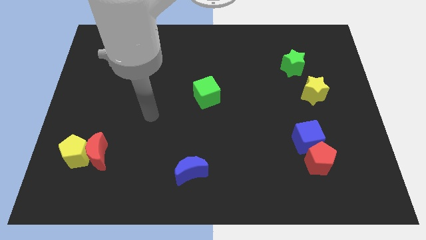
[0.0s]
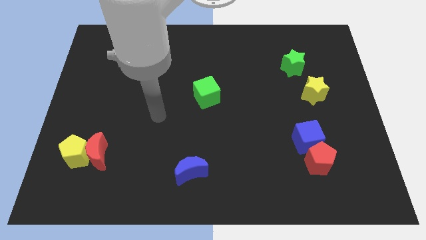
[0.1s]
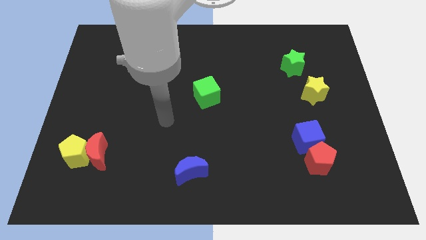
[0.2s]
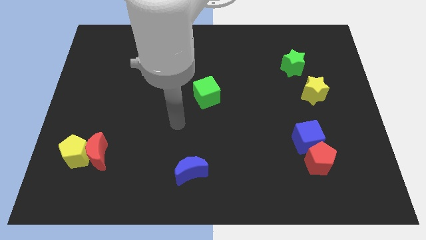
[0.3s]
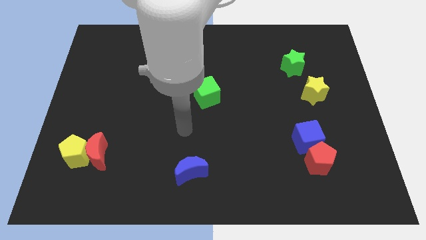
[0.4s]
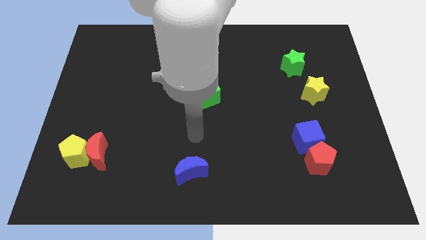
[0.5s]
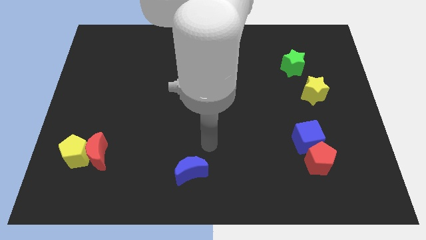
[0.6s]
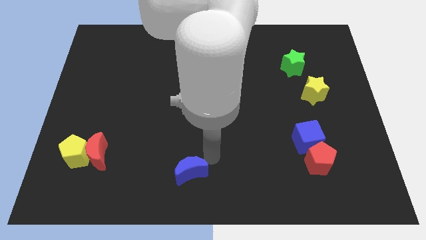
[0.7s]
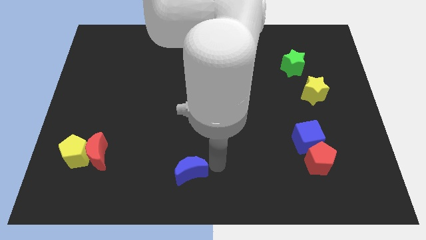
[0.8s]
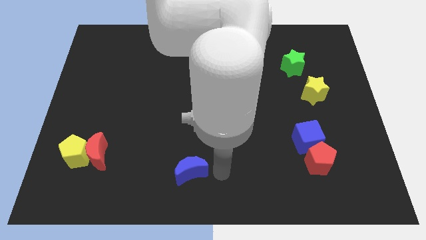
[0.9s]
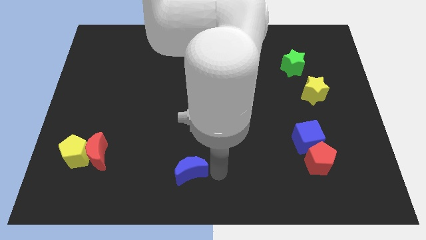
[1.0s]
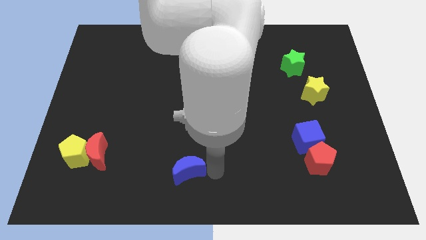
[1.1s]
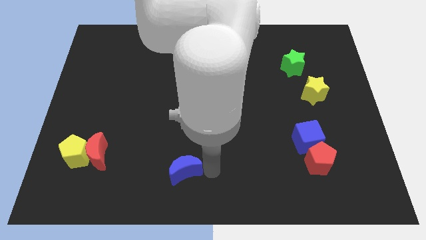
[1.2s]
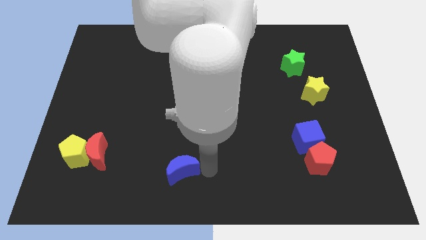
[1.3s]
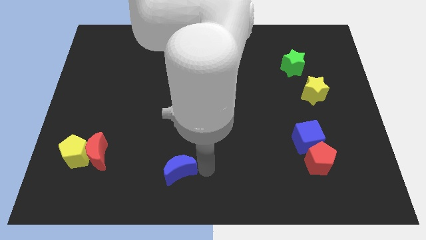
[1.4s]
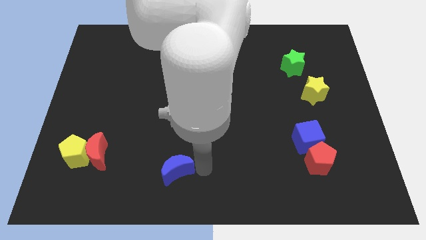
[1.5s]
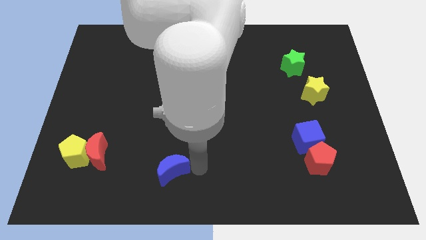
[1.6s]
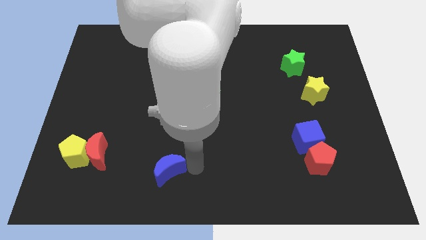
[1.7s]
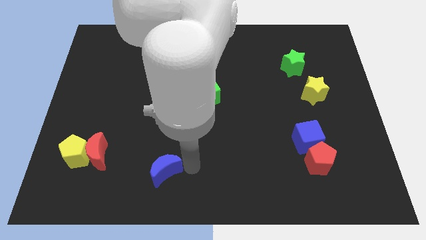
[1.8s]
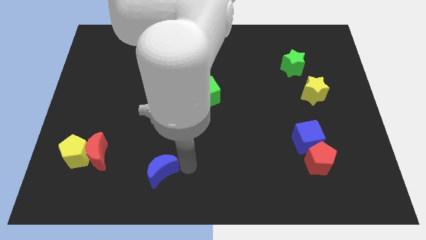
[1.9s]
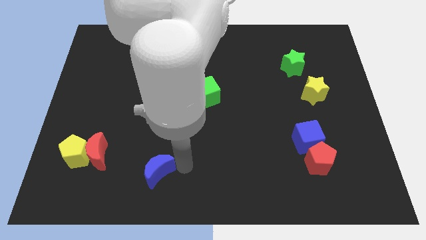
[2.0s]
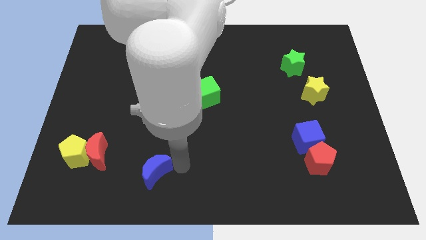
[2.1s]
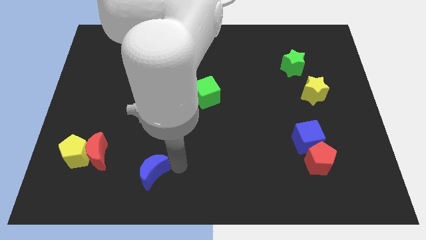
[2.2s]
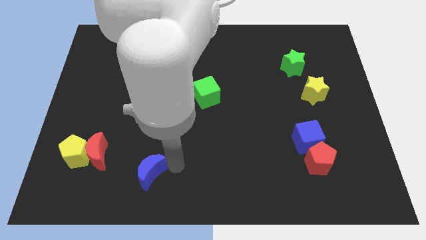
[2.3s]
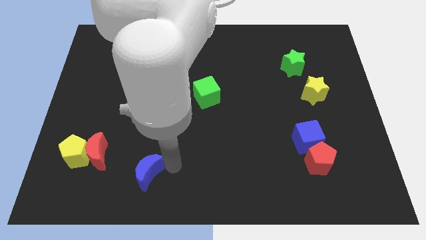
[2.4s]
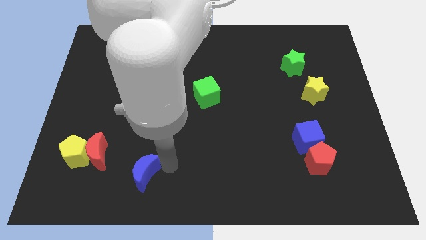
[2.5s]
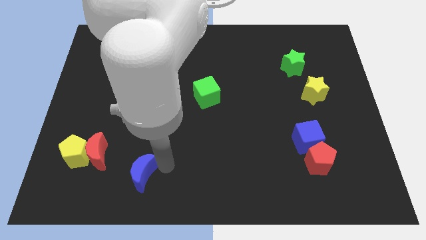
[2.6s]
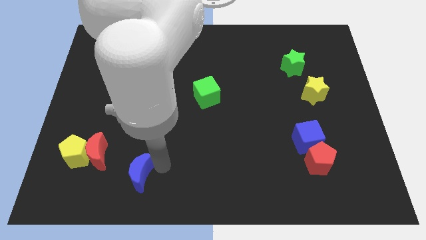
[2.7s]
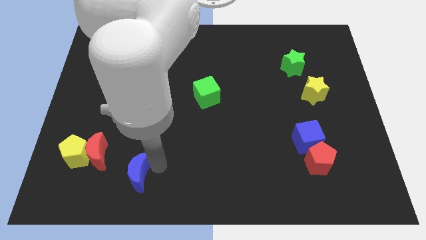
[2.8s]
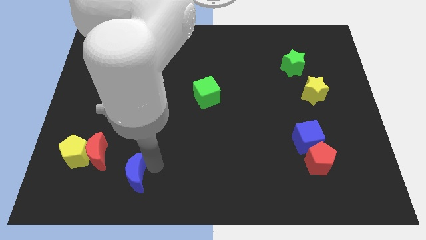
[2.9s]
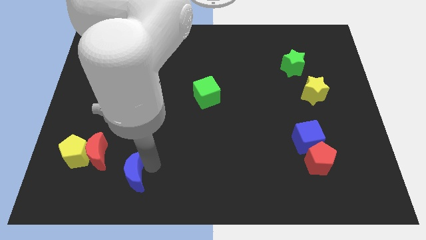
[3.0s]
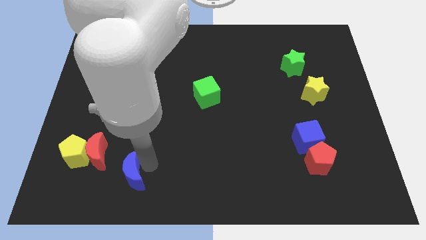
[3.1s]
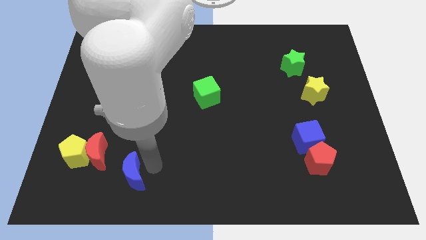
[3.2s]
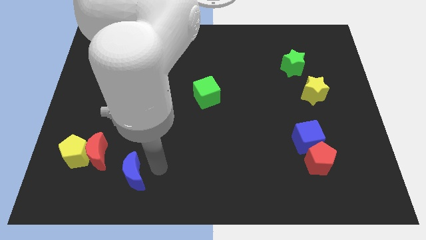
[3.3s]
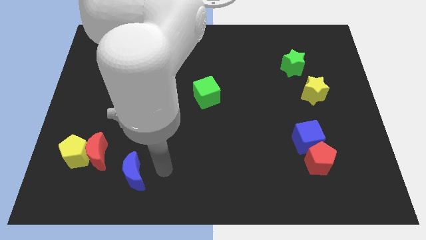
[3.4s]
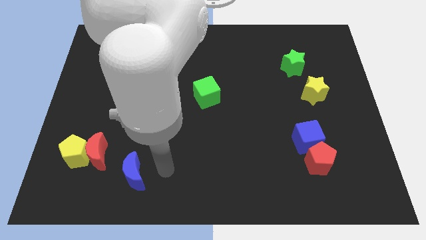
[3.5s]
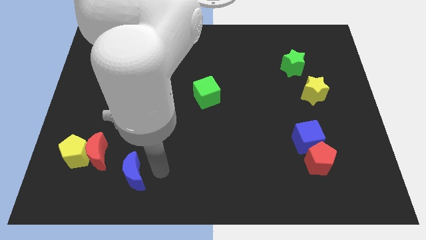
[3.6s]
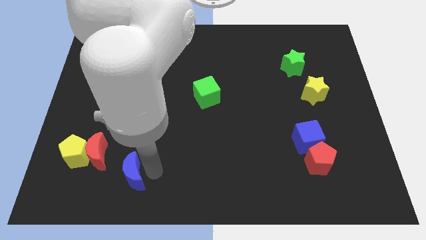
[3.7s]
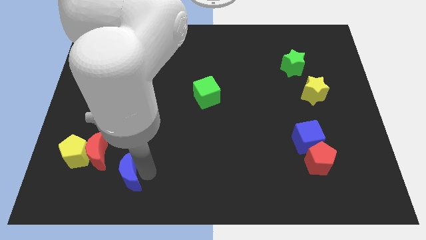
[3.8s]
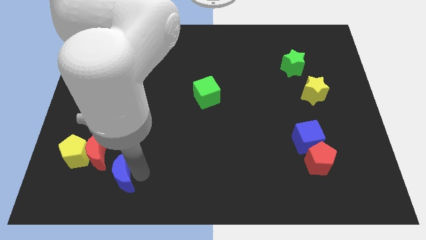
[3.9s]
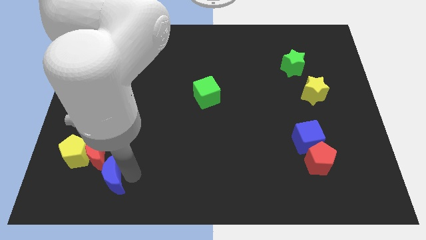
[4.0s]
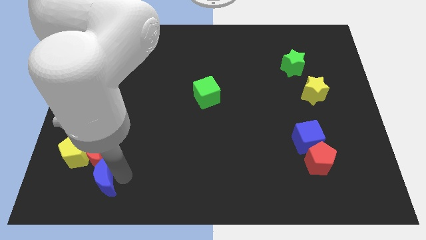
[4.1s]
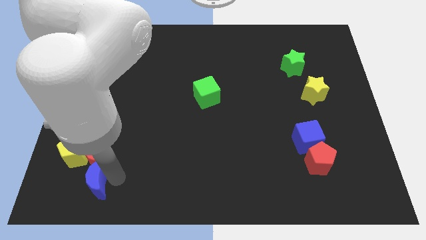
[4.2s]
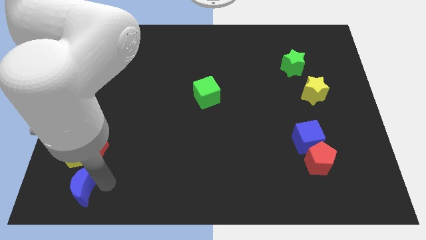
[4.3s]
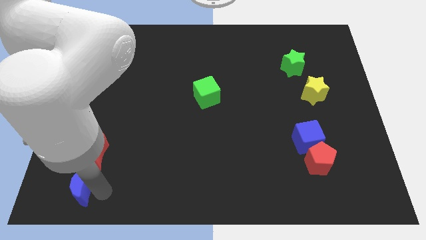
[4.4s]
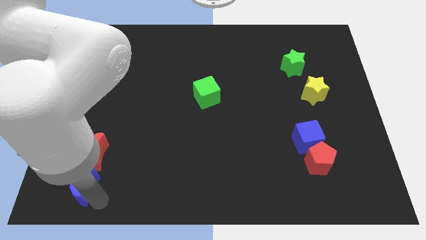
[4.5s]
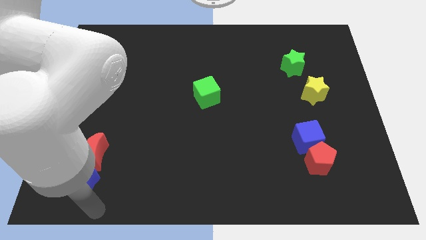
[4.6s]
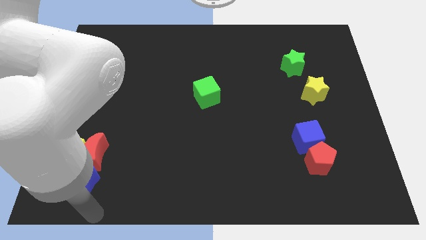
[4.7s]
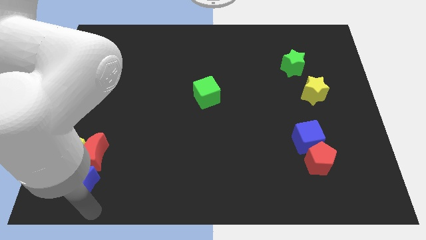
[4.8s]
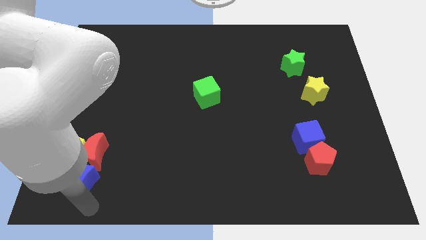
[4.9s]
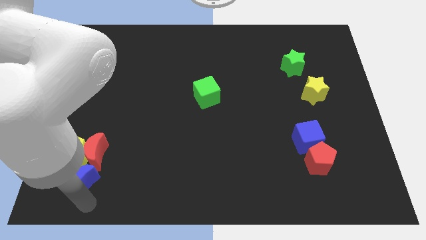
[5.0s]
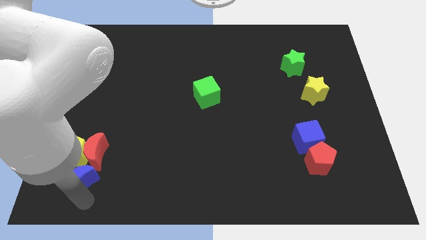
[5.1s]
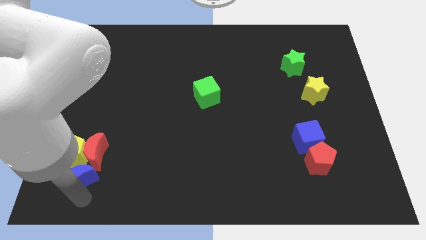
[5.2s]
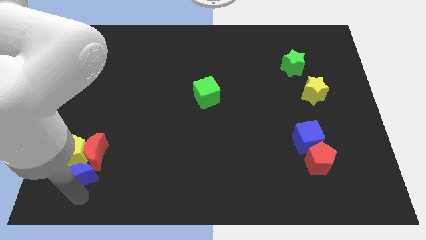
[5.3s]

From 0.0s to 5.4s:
push the blue moon close to the yellow pentagon

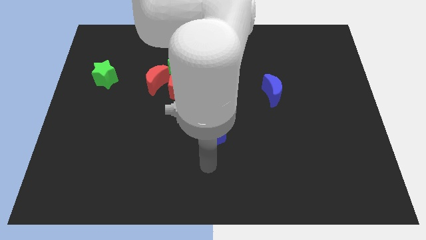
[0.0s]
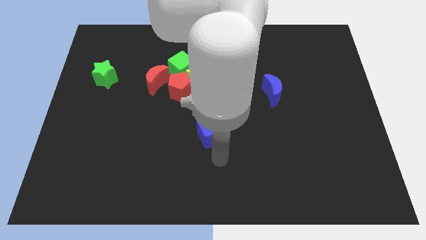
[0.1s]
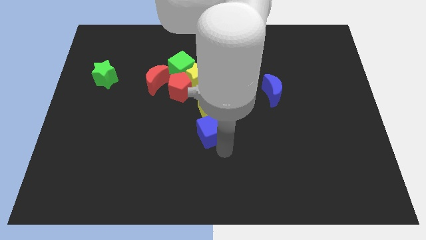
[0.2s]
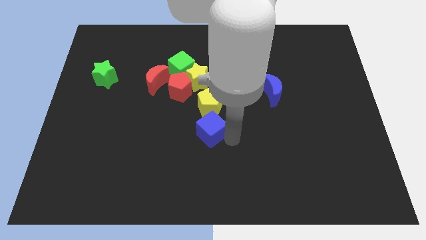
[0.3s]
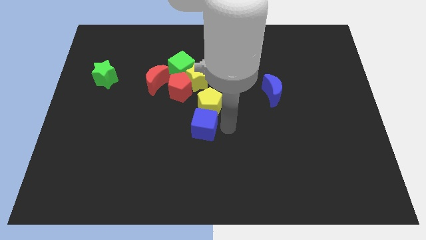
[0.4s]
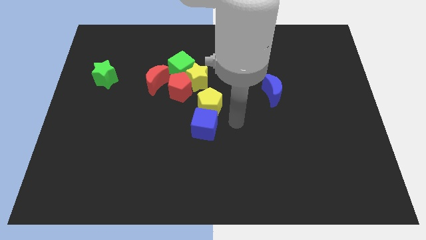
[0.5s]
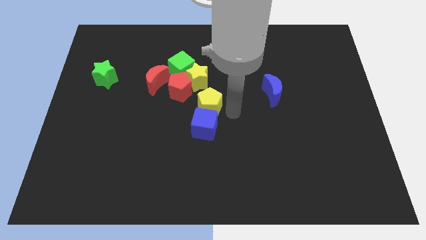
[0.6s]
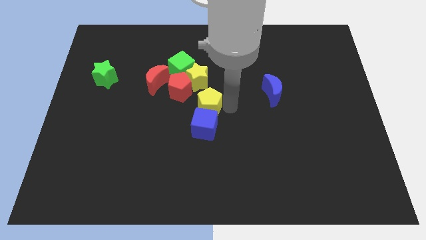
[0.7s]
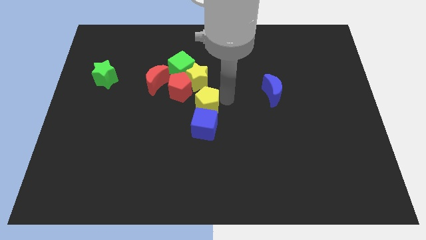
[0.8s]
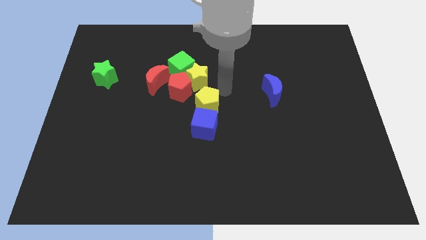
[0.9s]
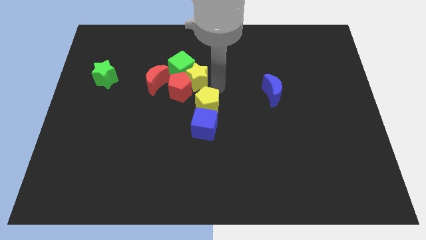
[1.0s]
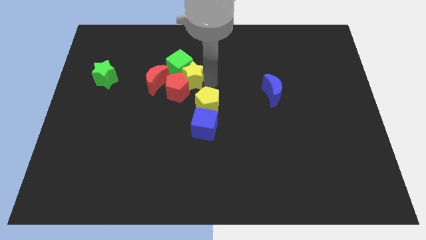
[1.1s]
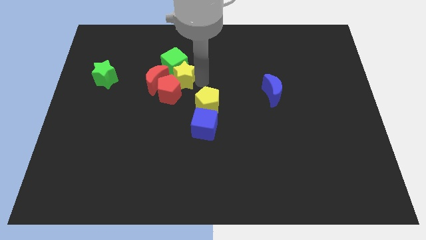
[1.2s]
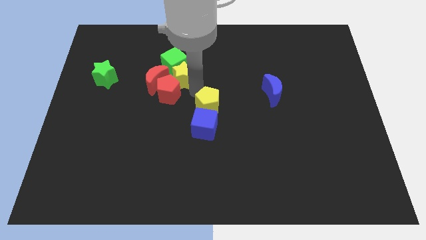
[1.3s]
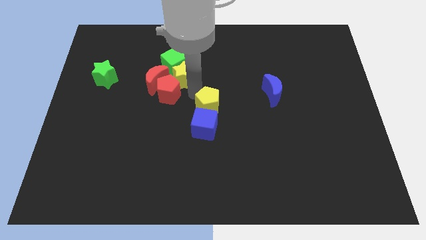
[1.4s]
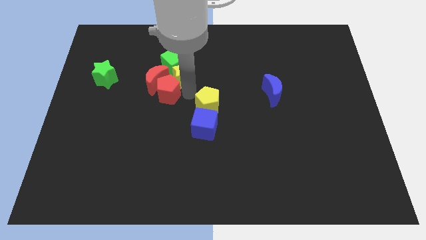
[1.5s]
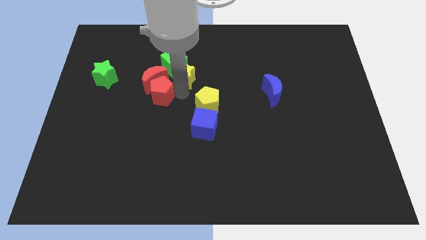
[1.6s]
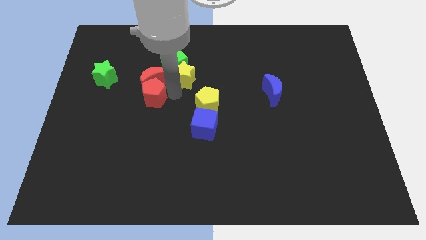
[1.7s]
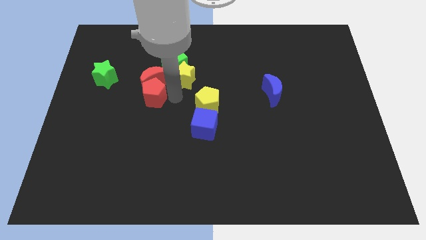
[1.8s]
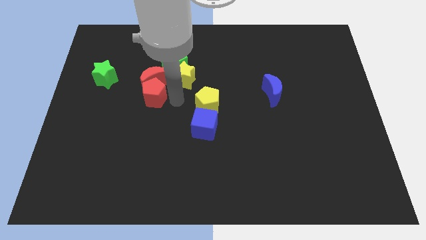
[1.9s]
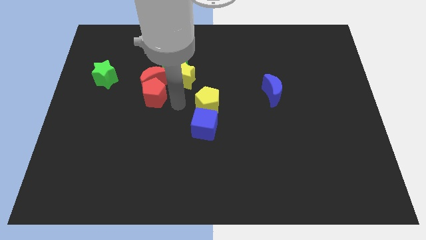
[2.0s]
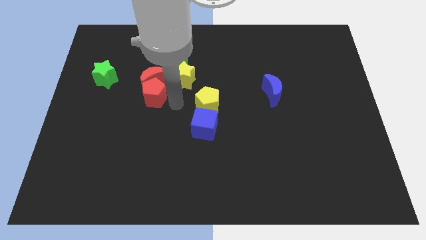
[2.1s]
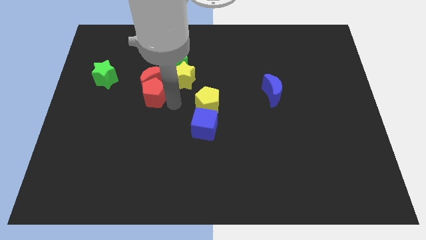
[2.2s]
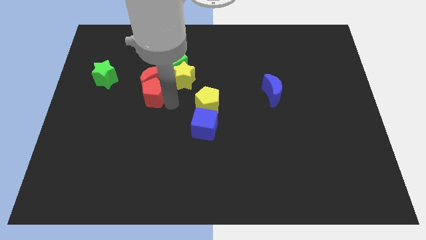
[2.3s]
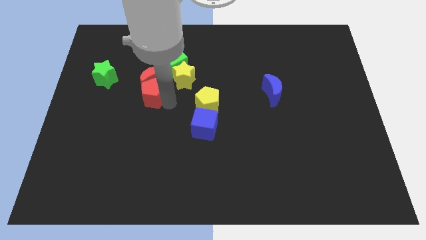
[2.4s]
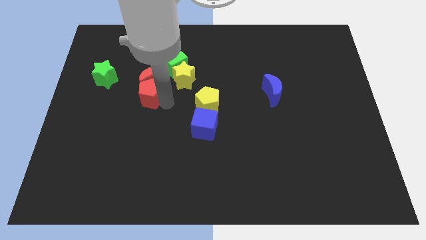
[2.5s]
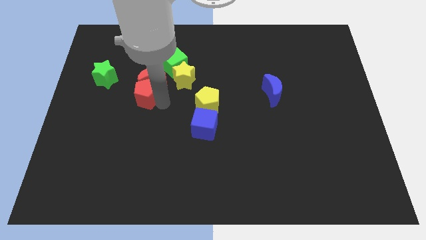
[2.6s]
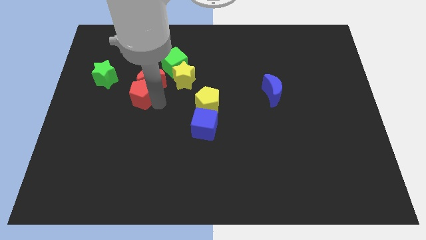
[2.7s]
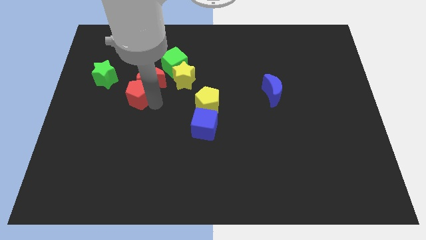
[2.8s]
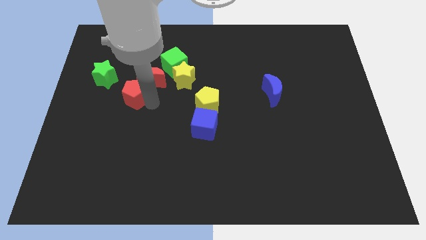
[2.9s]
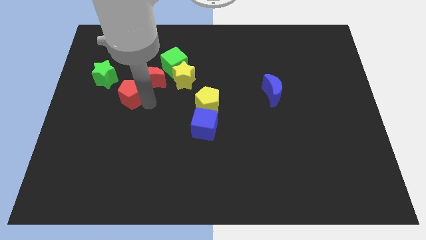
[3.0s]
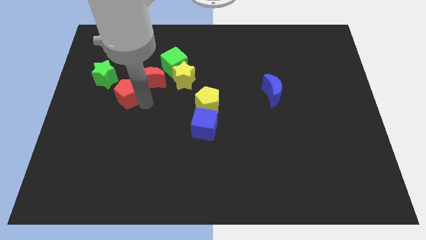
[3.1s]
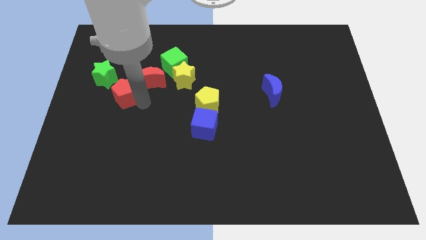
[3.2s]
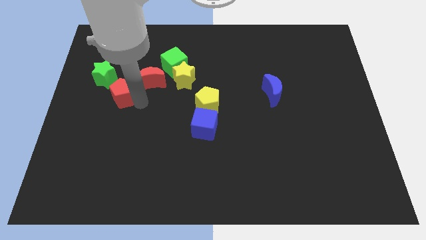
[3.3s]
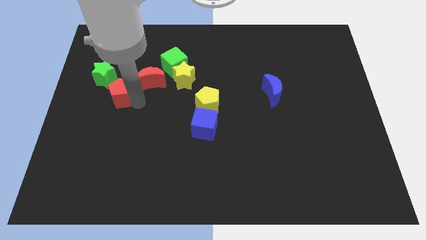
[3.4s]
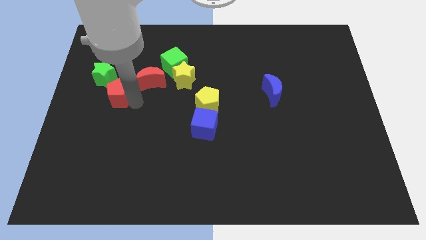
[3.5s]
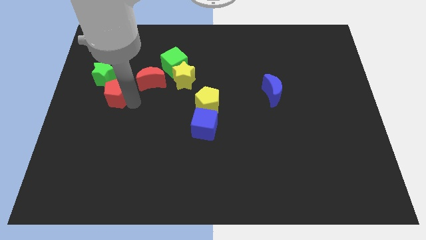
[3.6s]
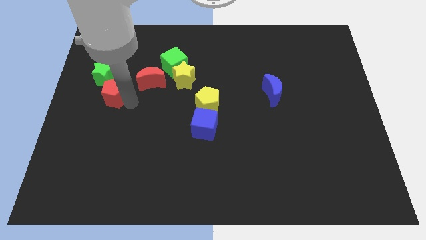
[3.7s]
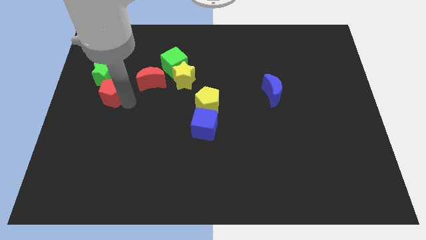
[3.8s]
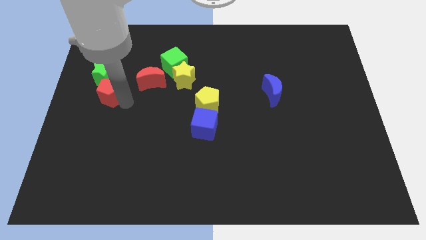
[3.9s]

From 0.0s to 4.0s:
move the red pentagon close to the green star
